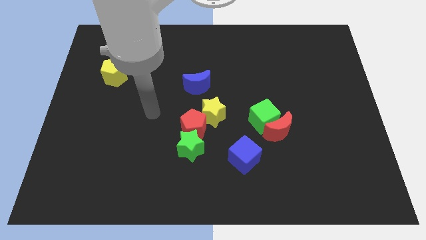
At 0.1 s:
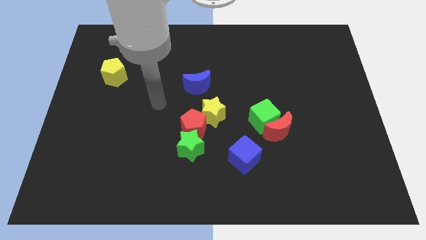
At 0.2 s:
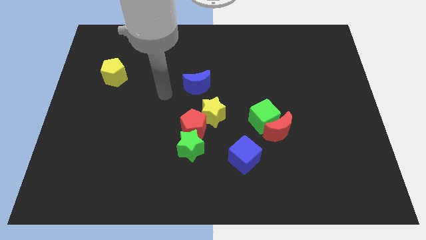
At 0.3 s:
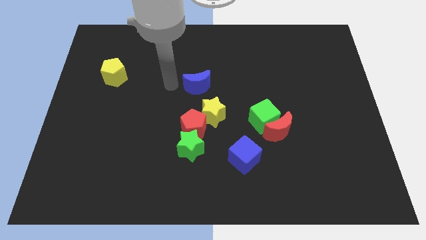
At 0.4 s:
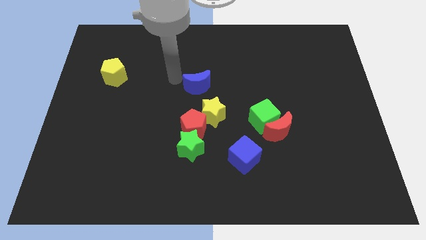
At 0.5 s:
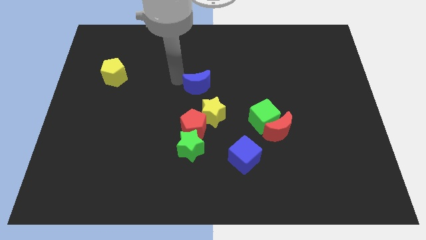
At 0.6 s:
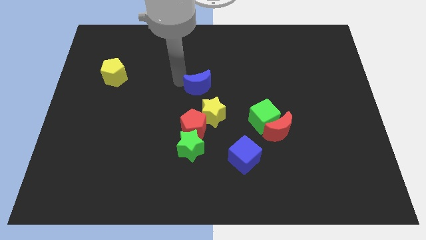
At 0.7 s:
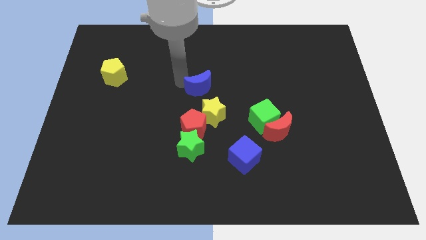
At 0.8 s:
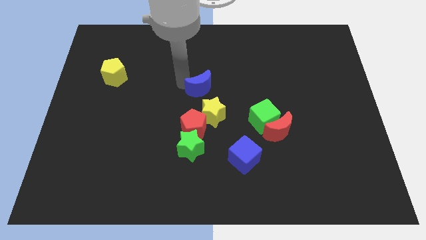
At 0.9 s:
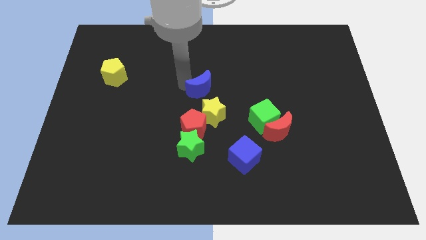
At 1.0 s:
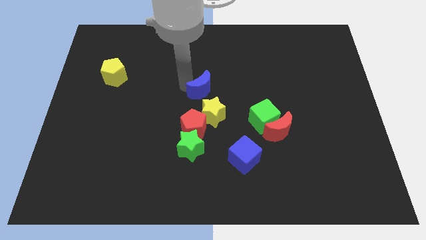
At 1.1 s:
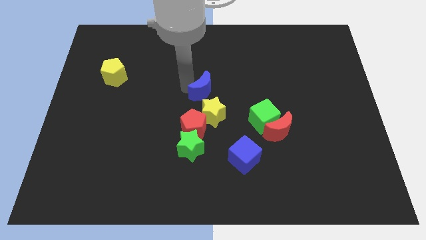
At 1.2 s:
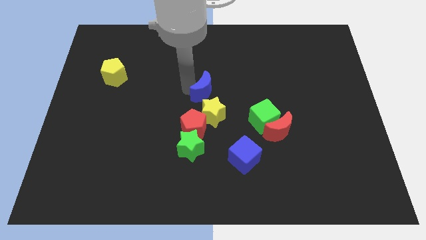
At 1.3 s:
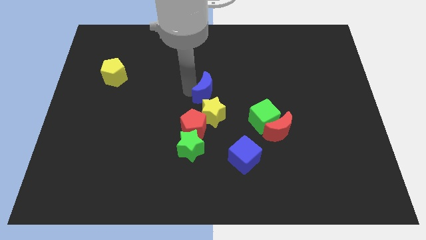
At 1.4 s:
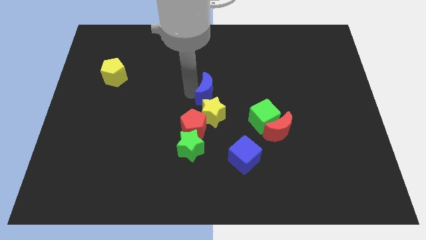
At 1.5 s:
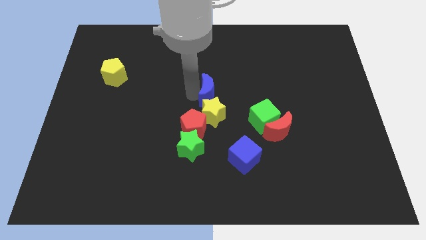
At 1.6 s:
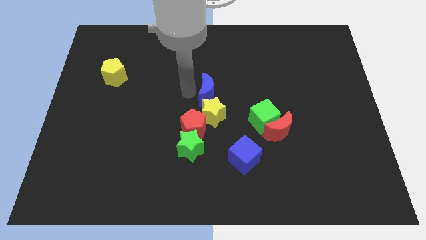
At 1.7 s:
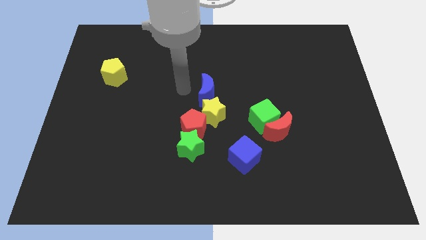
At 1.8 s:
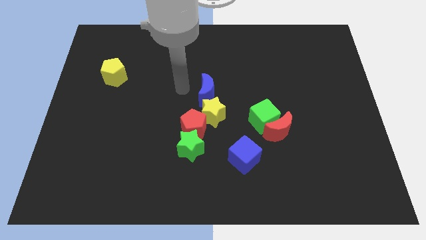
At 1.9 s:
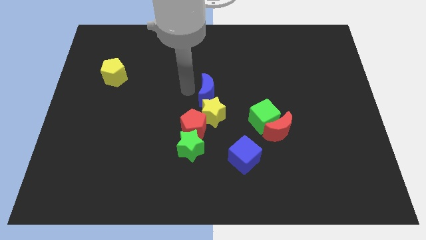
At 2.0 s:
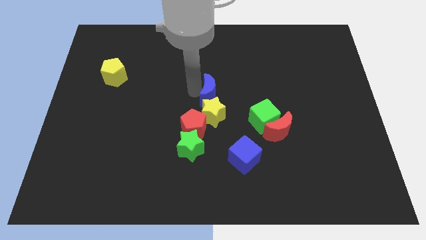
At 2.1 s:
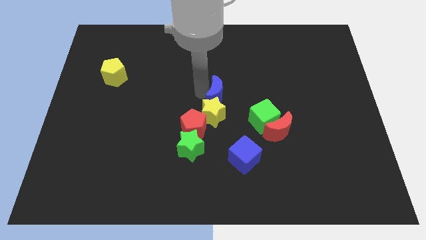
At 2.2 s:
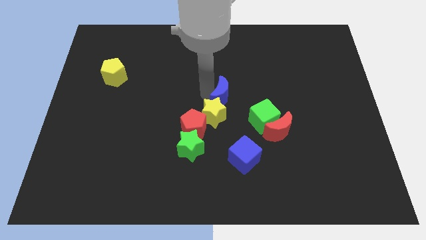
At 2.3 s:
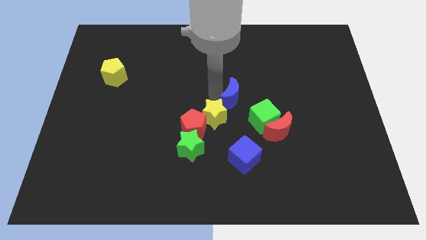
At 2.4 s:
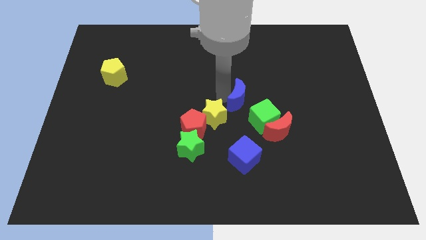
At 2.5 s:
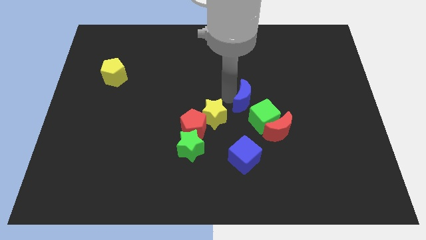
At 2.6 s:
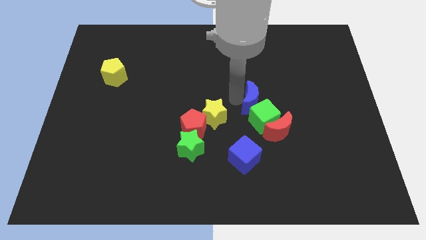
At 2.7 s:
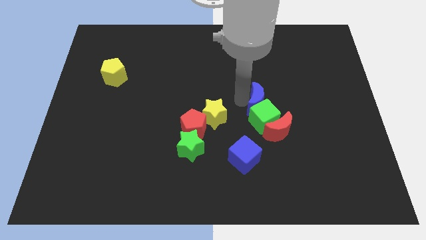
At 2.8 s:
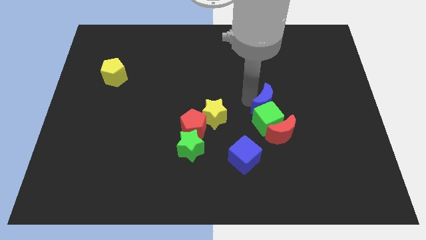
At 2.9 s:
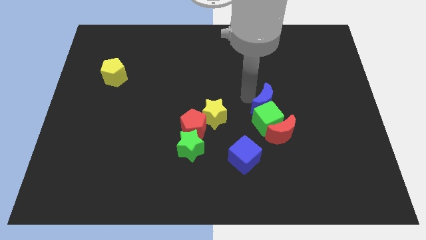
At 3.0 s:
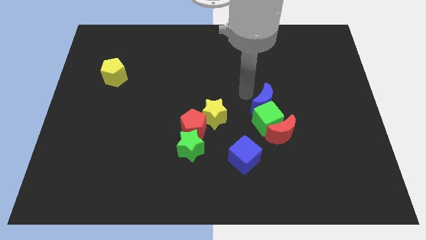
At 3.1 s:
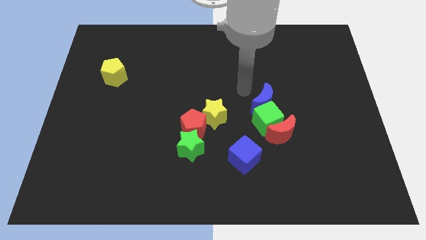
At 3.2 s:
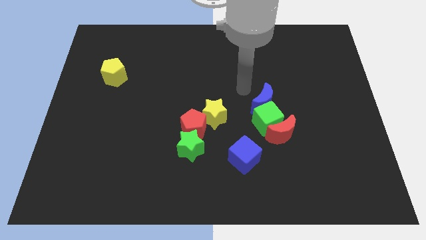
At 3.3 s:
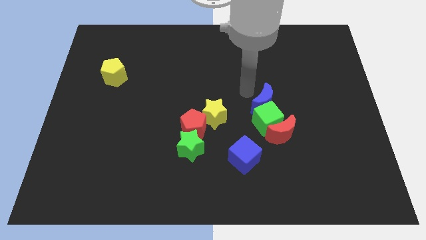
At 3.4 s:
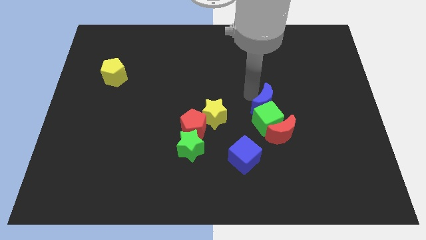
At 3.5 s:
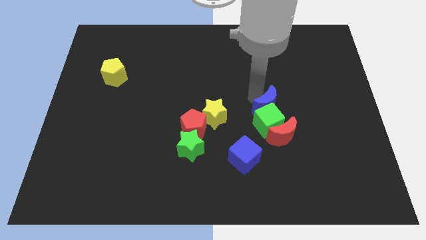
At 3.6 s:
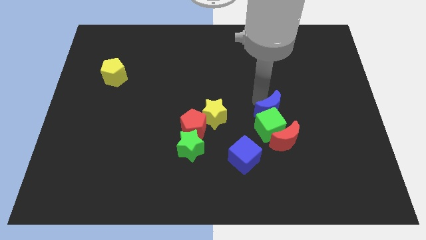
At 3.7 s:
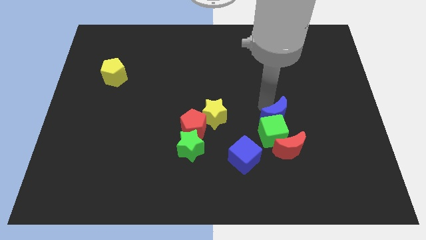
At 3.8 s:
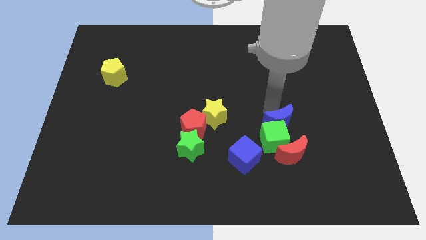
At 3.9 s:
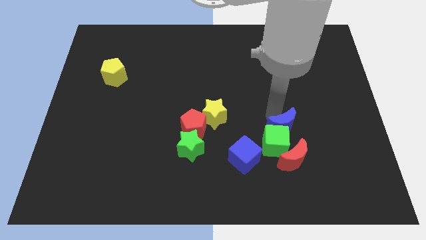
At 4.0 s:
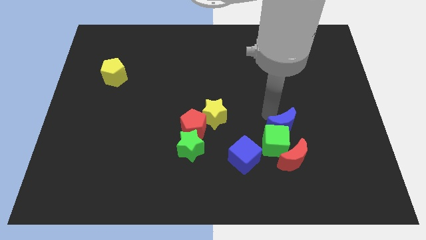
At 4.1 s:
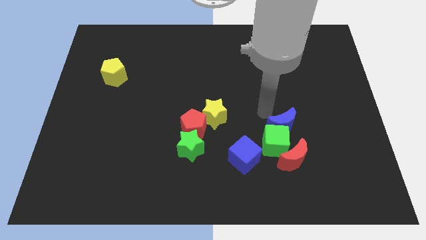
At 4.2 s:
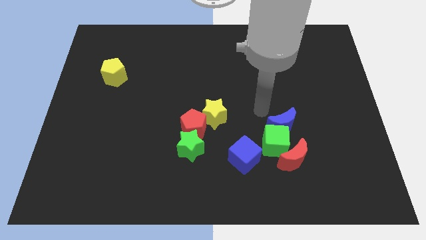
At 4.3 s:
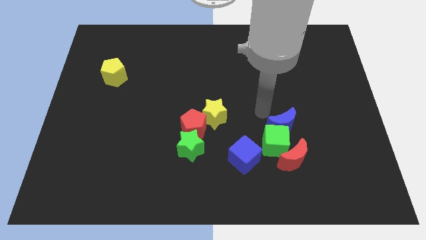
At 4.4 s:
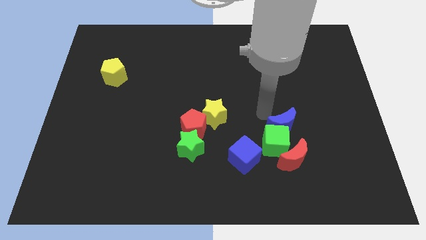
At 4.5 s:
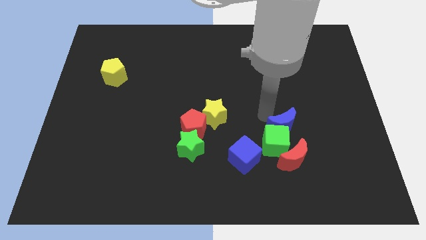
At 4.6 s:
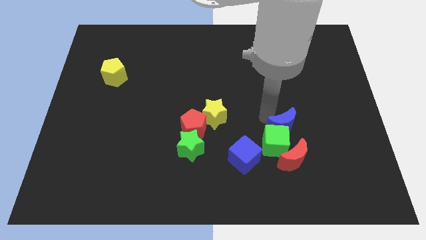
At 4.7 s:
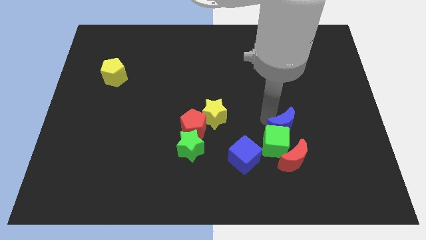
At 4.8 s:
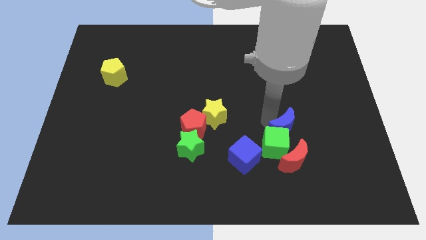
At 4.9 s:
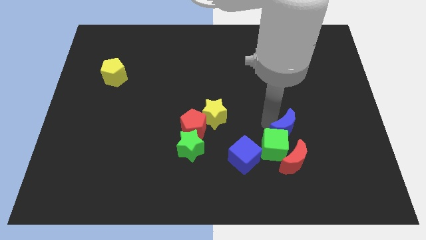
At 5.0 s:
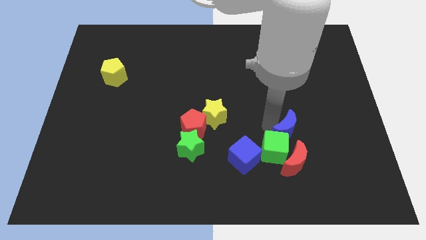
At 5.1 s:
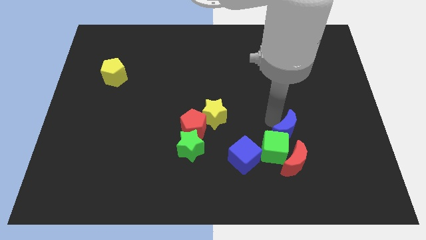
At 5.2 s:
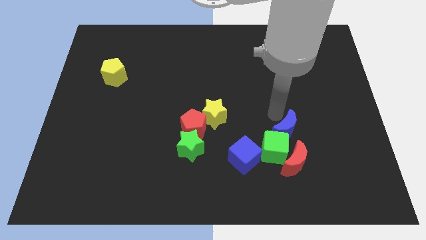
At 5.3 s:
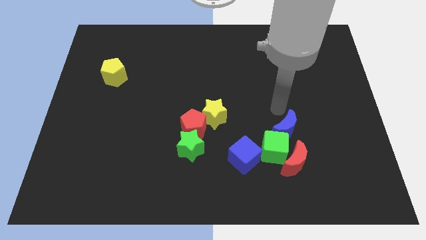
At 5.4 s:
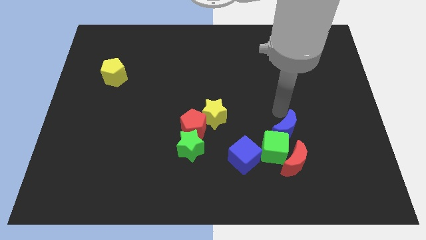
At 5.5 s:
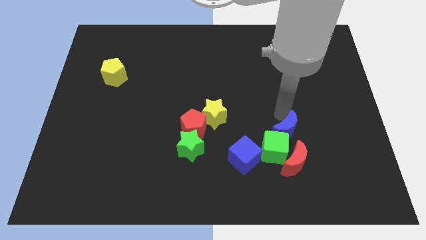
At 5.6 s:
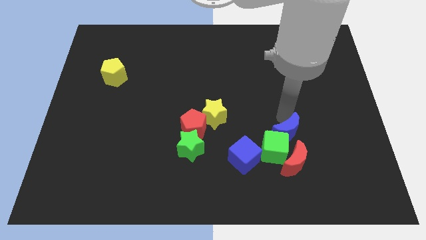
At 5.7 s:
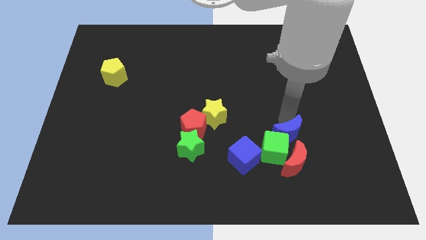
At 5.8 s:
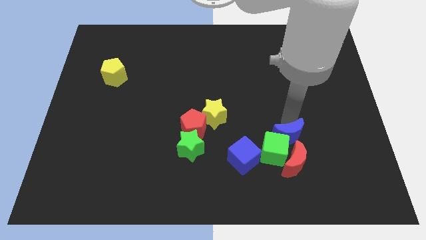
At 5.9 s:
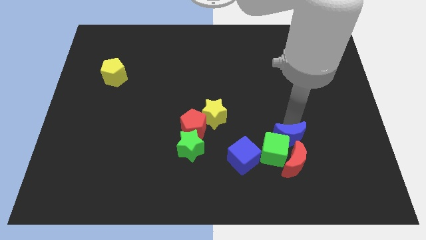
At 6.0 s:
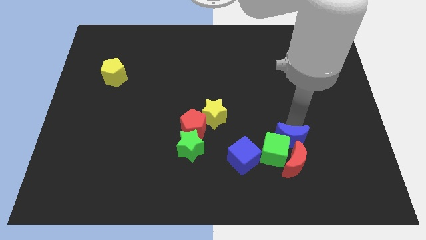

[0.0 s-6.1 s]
push the blue moon next to the red moon

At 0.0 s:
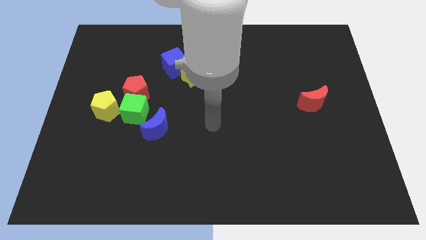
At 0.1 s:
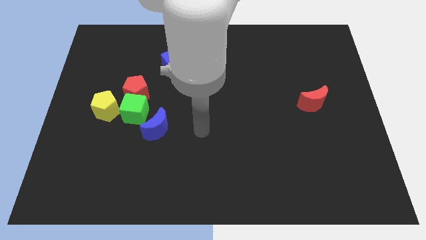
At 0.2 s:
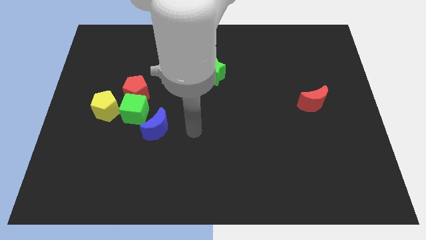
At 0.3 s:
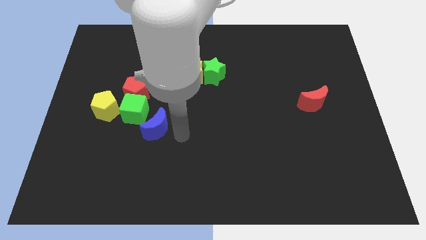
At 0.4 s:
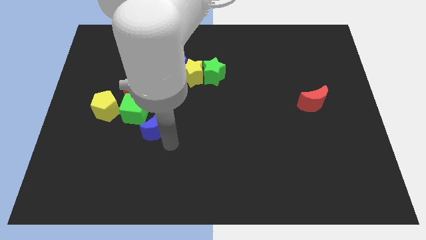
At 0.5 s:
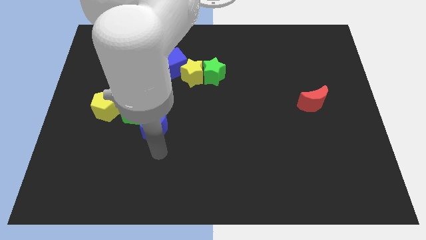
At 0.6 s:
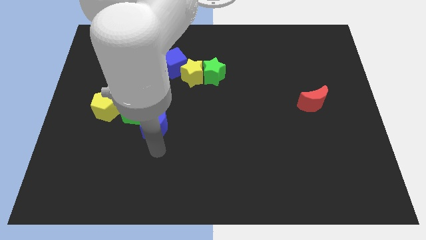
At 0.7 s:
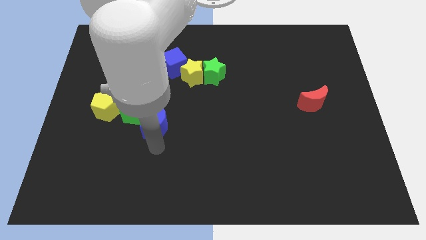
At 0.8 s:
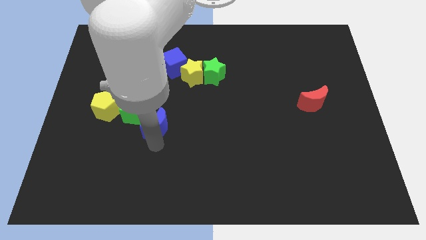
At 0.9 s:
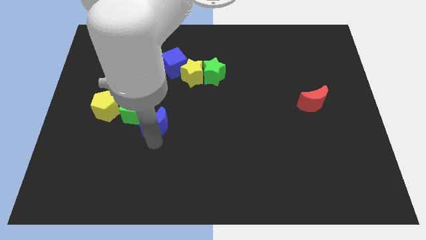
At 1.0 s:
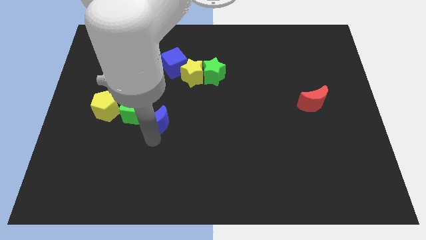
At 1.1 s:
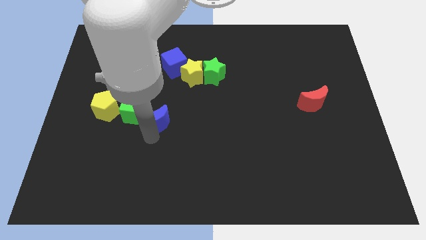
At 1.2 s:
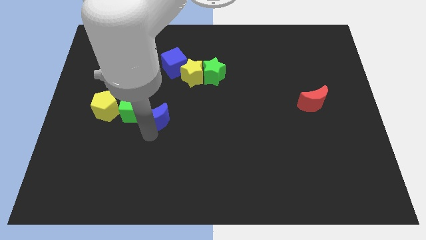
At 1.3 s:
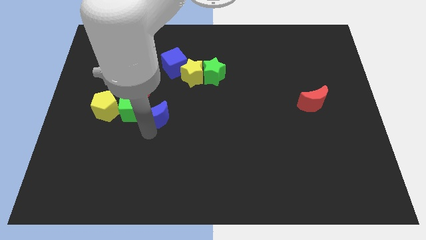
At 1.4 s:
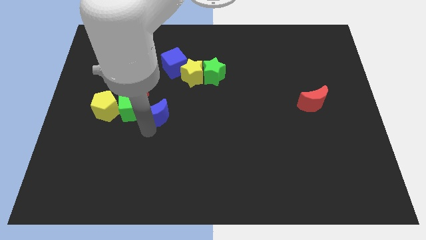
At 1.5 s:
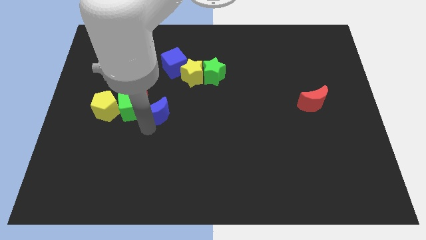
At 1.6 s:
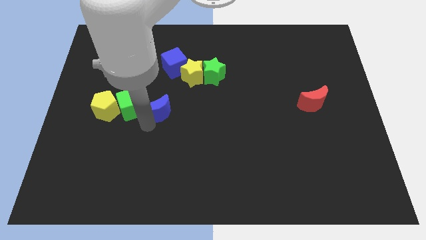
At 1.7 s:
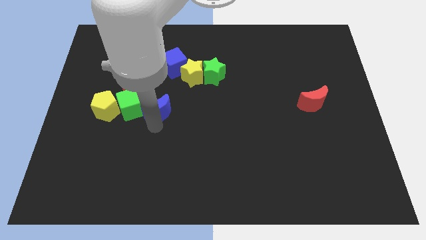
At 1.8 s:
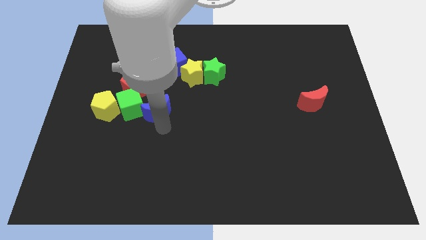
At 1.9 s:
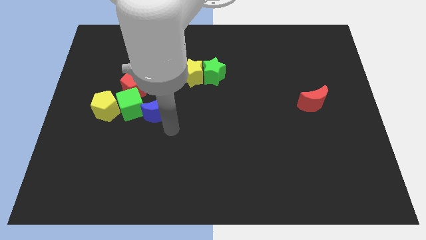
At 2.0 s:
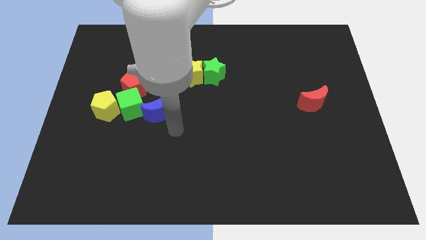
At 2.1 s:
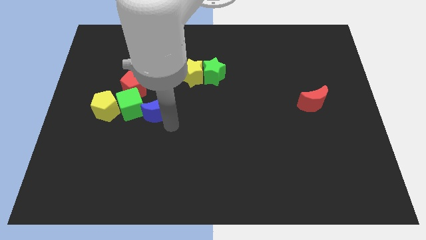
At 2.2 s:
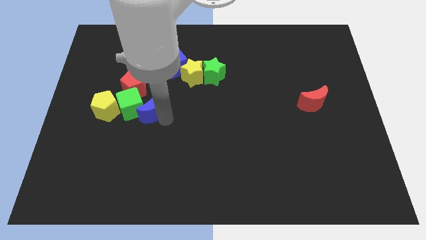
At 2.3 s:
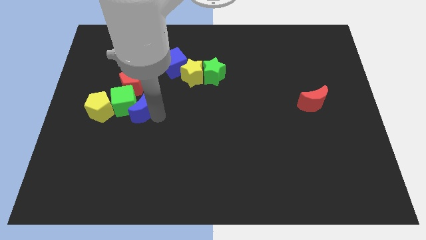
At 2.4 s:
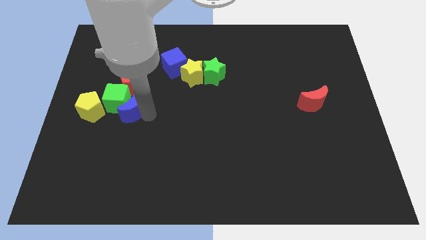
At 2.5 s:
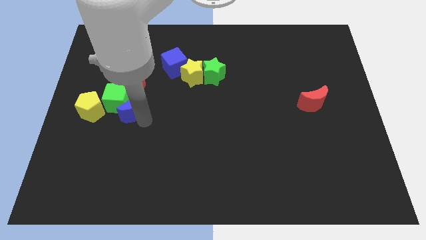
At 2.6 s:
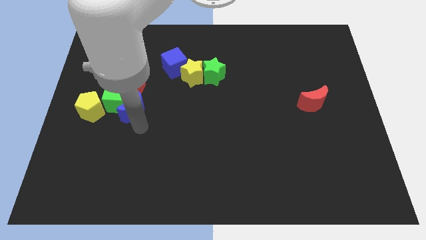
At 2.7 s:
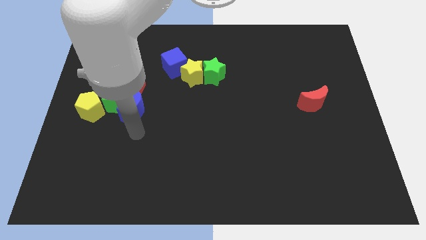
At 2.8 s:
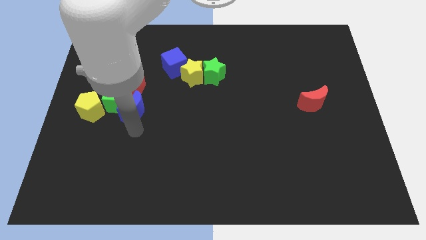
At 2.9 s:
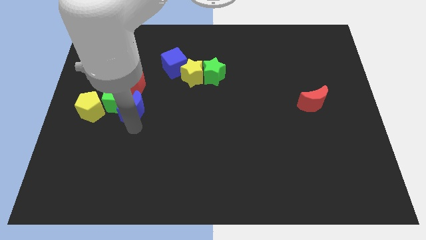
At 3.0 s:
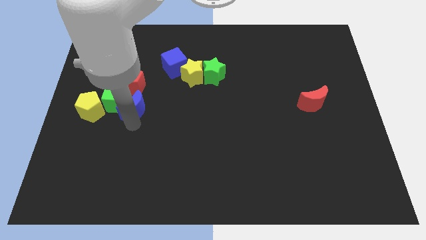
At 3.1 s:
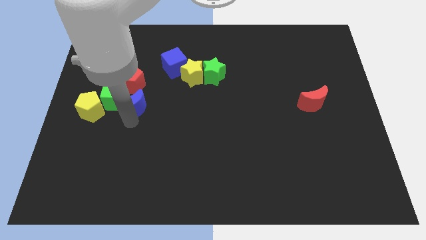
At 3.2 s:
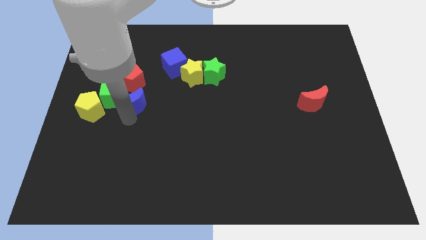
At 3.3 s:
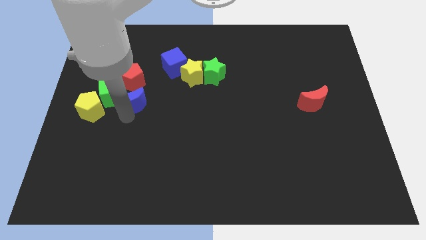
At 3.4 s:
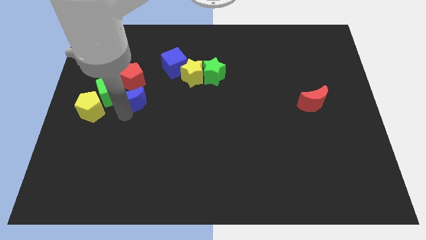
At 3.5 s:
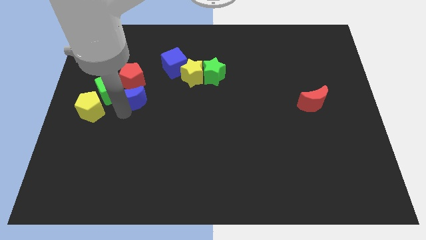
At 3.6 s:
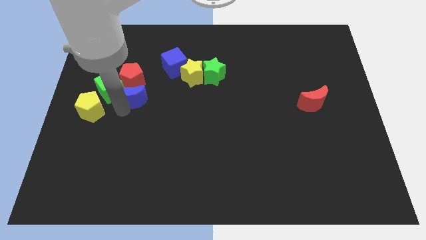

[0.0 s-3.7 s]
push the blue moon close to the red pentagon
